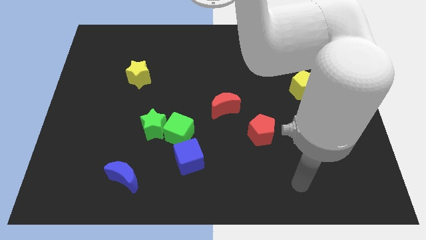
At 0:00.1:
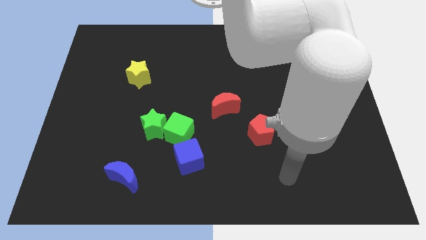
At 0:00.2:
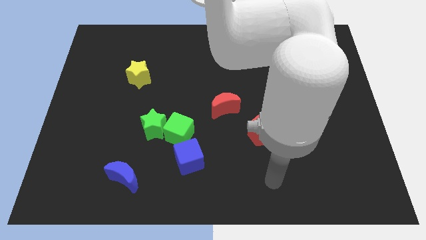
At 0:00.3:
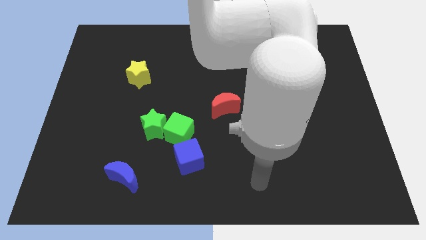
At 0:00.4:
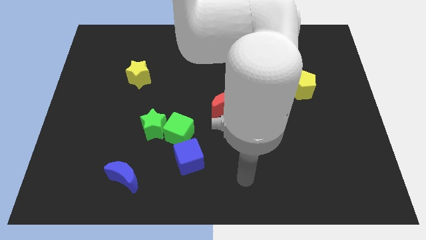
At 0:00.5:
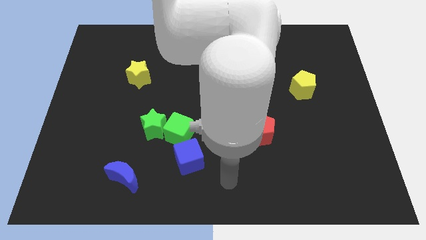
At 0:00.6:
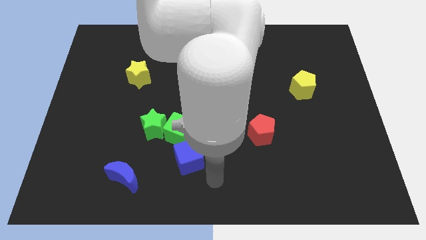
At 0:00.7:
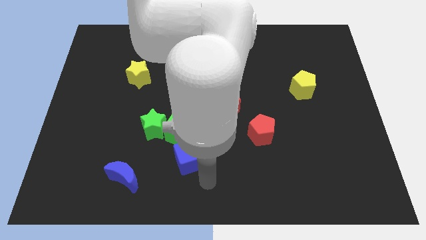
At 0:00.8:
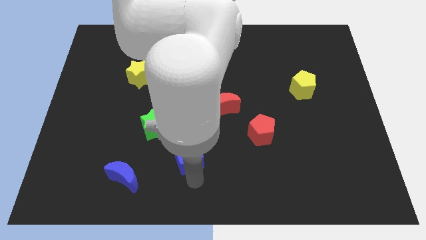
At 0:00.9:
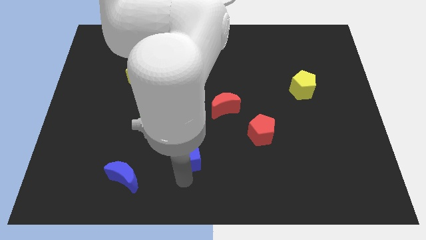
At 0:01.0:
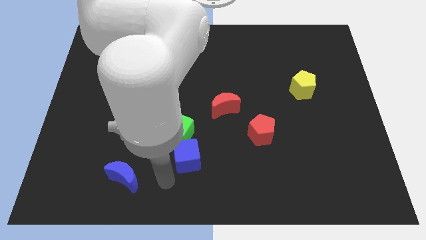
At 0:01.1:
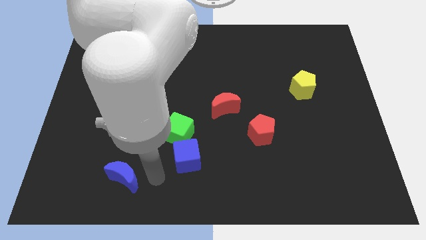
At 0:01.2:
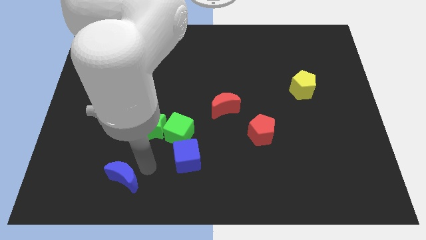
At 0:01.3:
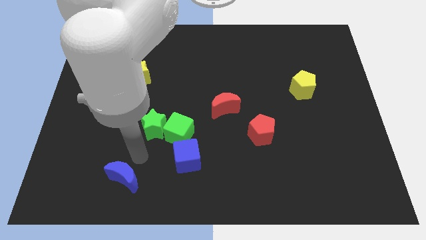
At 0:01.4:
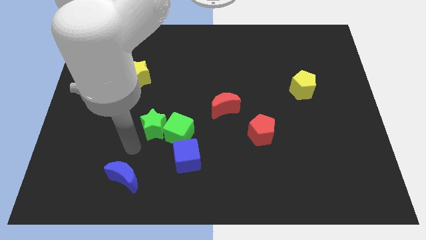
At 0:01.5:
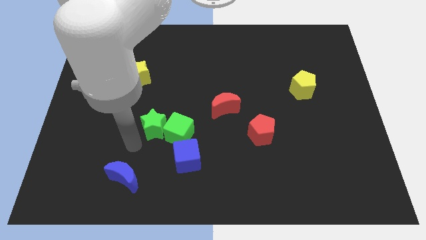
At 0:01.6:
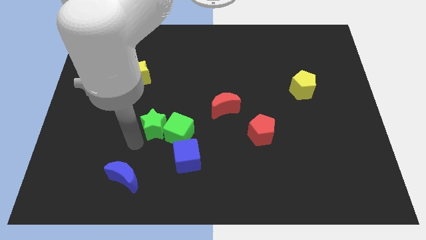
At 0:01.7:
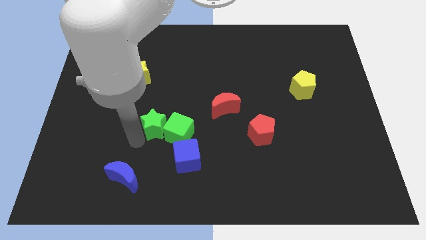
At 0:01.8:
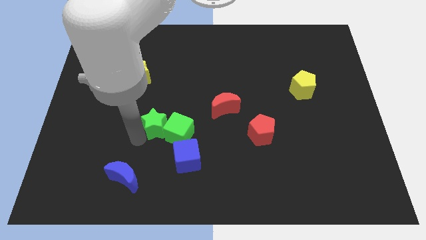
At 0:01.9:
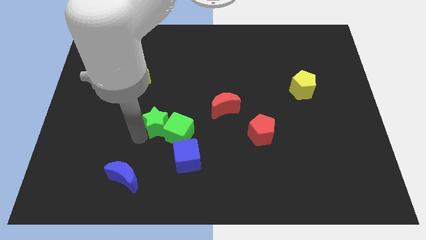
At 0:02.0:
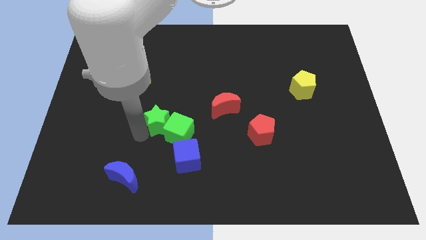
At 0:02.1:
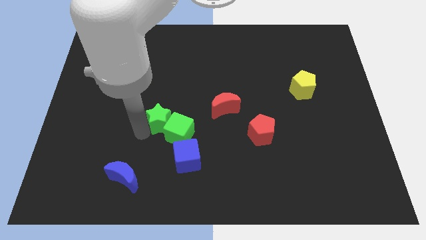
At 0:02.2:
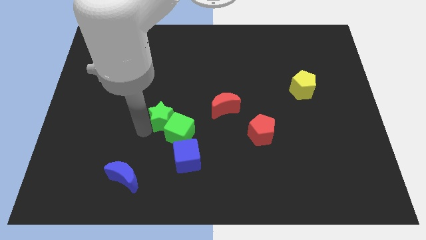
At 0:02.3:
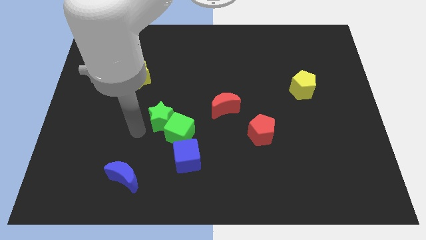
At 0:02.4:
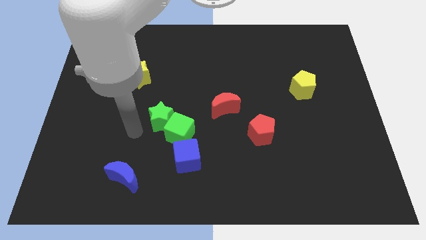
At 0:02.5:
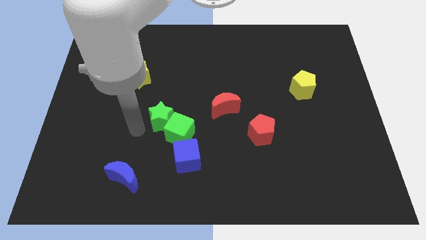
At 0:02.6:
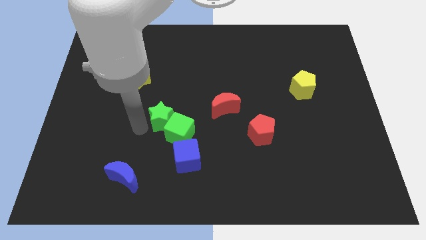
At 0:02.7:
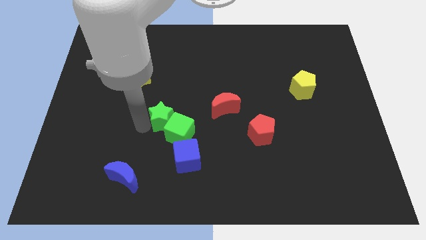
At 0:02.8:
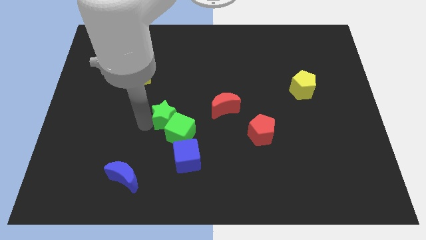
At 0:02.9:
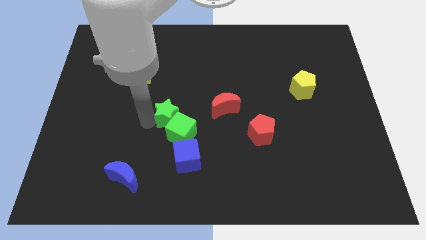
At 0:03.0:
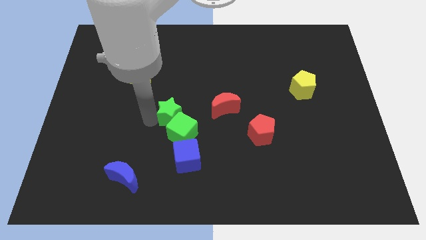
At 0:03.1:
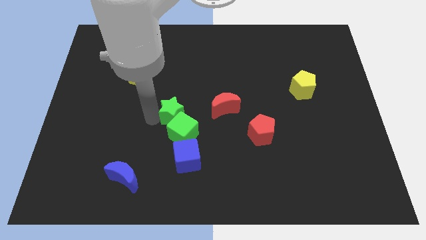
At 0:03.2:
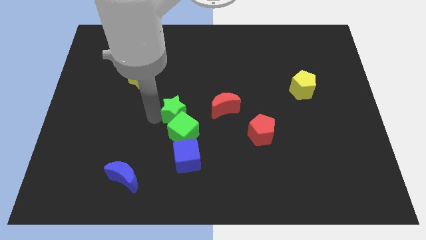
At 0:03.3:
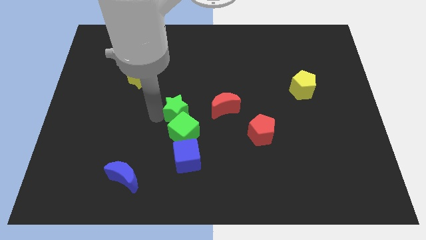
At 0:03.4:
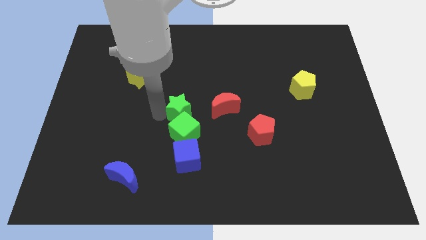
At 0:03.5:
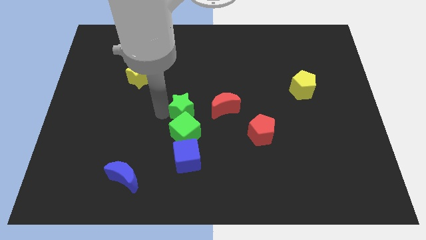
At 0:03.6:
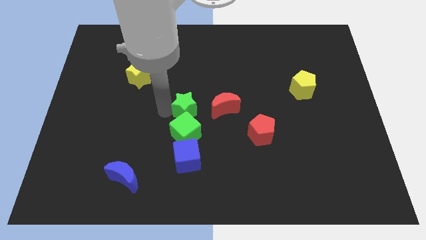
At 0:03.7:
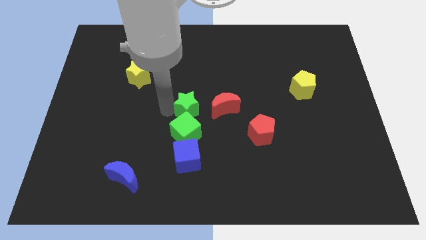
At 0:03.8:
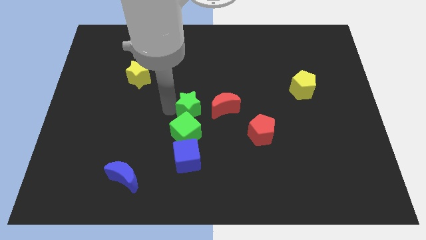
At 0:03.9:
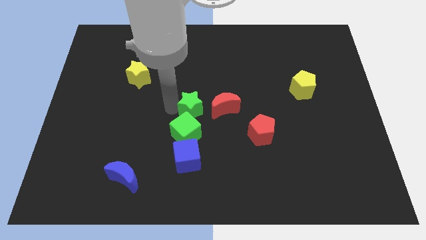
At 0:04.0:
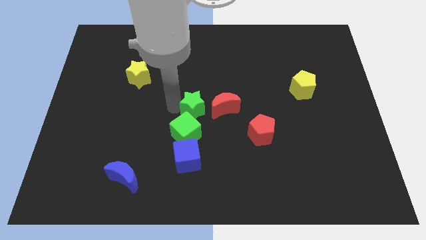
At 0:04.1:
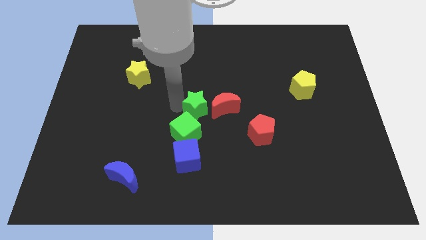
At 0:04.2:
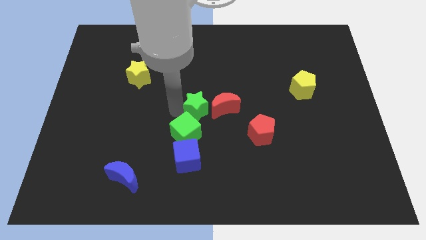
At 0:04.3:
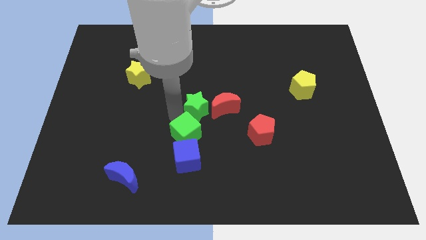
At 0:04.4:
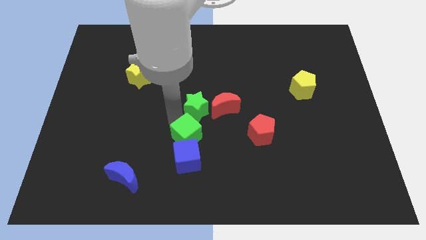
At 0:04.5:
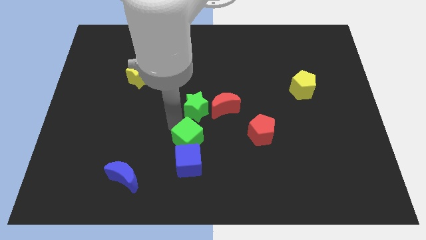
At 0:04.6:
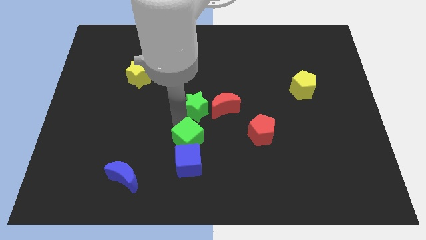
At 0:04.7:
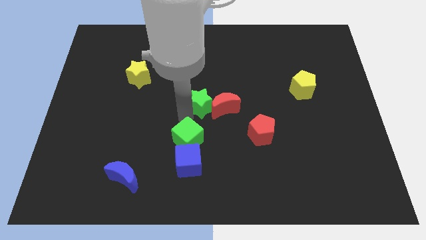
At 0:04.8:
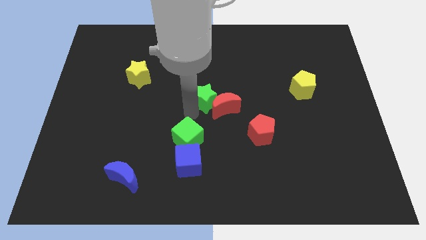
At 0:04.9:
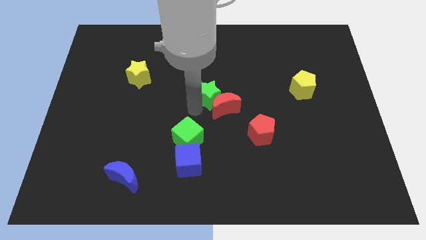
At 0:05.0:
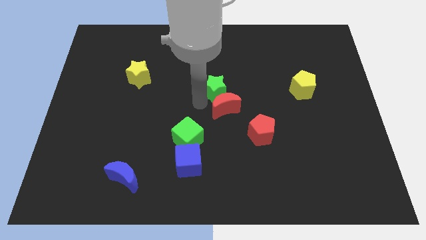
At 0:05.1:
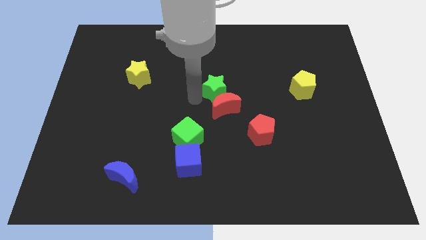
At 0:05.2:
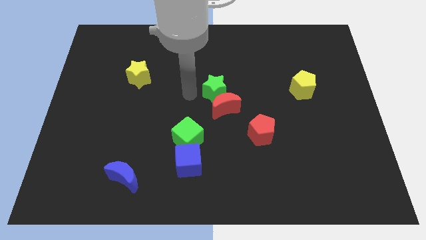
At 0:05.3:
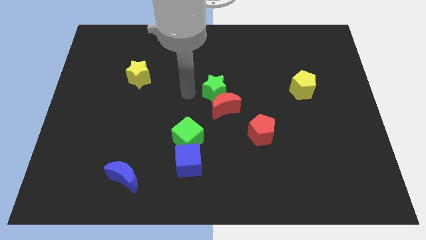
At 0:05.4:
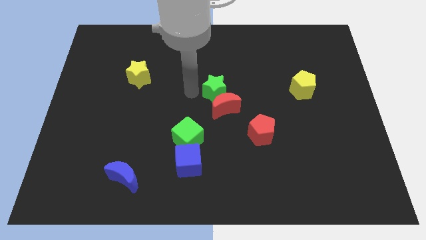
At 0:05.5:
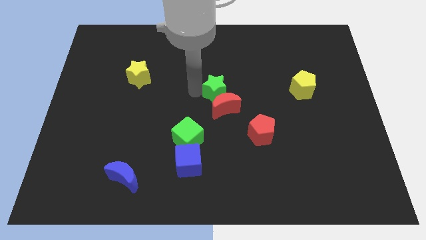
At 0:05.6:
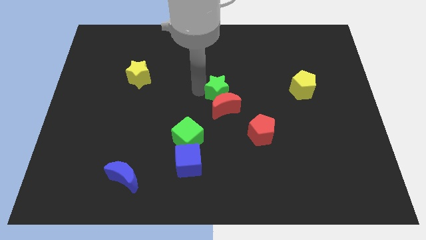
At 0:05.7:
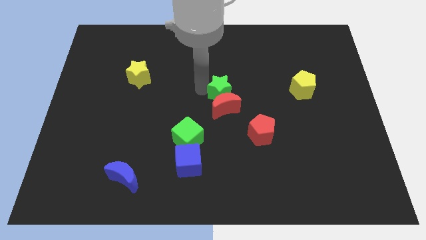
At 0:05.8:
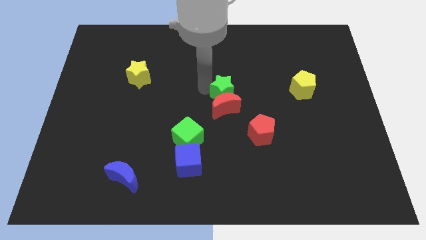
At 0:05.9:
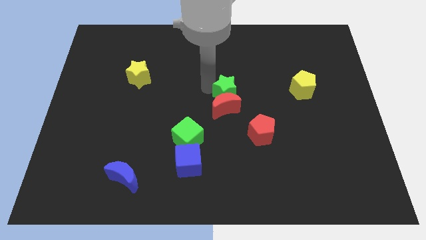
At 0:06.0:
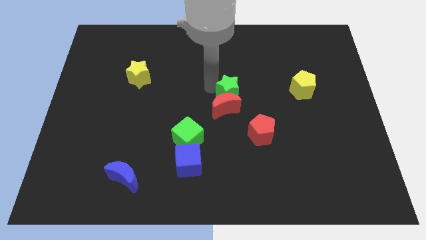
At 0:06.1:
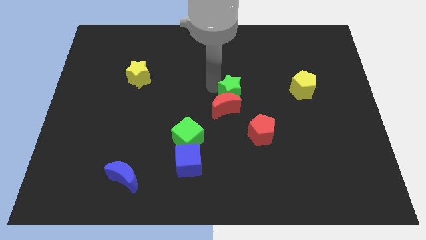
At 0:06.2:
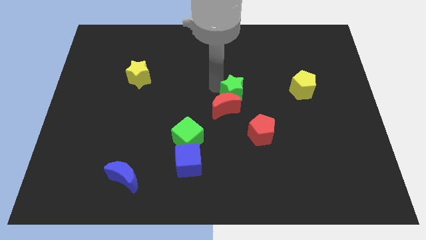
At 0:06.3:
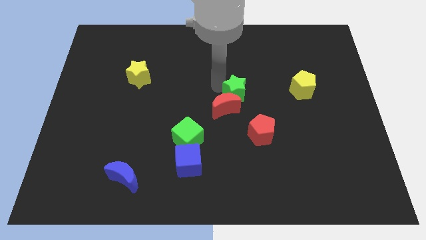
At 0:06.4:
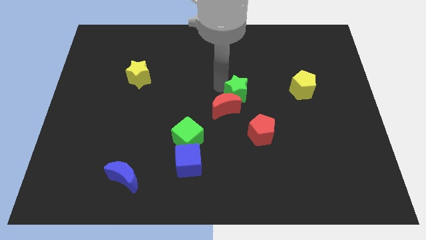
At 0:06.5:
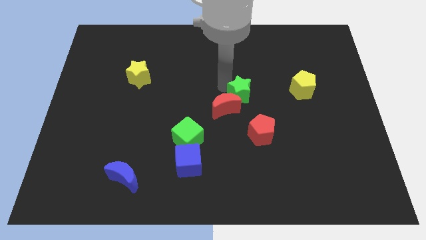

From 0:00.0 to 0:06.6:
put the green star right of the red moon

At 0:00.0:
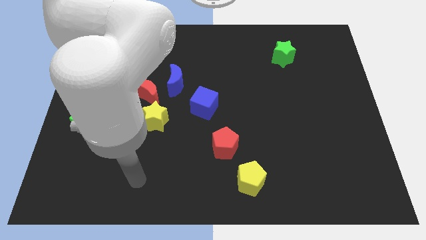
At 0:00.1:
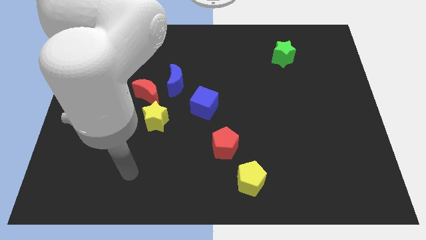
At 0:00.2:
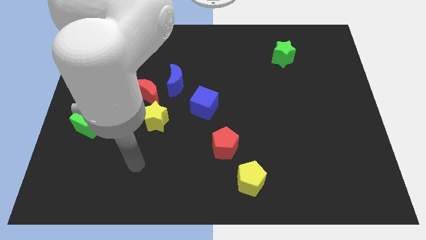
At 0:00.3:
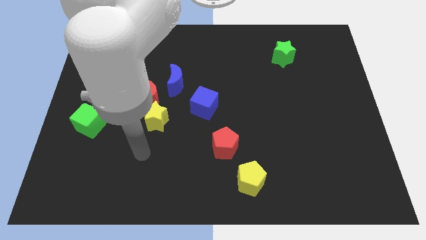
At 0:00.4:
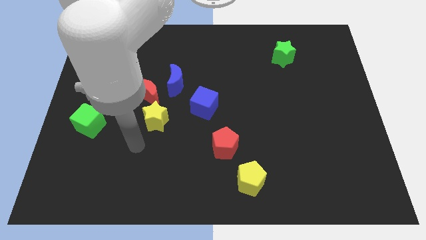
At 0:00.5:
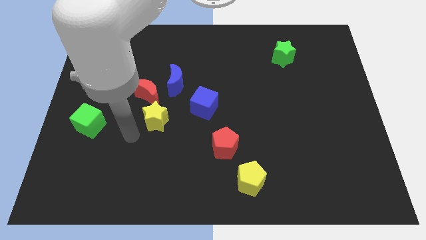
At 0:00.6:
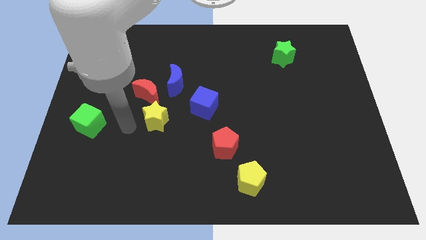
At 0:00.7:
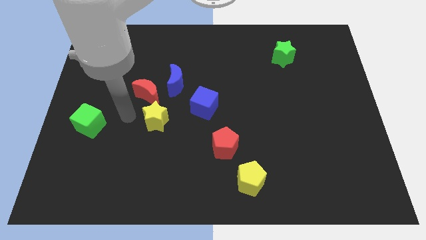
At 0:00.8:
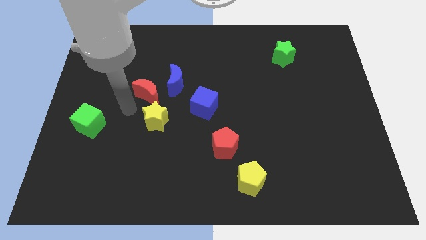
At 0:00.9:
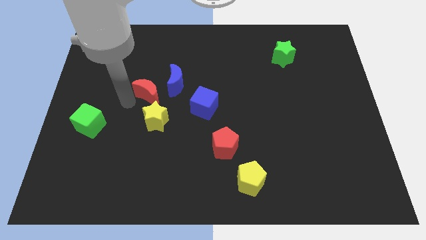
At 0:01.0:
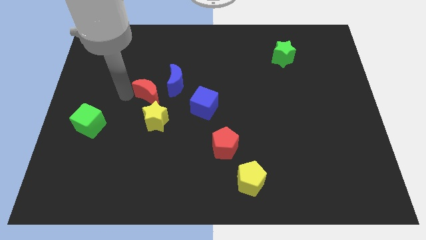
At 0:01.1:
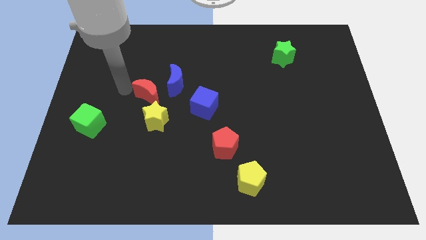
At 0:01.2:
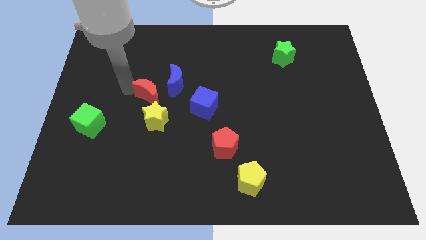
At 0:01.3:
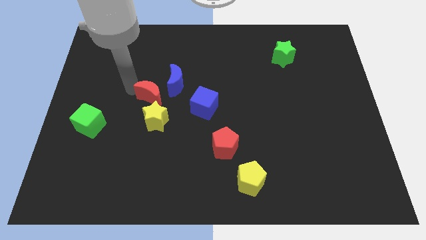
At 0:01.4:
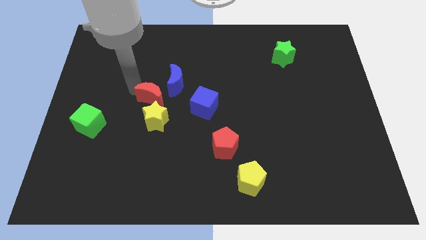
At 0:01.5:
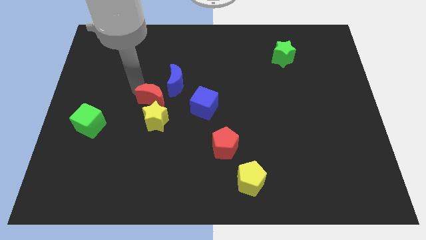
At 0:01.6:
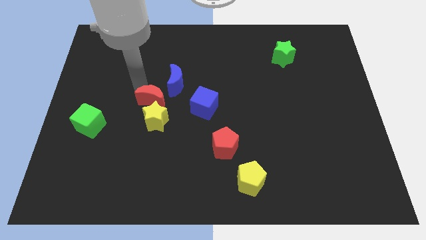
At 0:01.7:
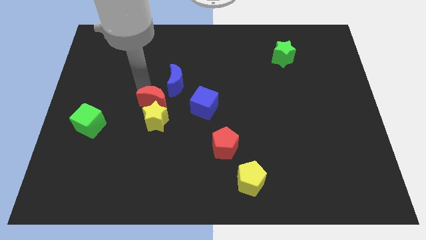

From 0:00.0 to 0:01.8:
put the red moon diagonally up and to the right of the yellow star
